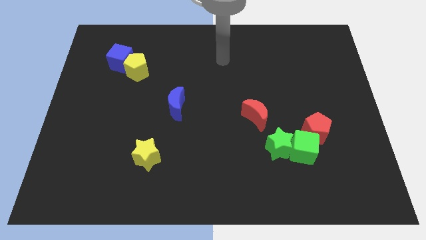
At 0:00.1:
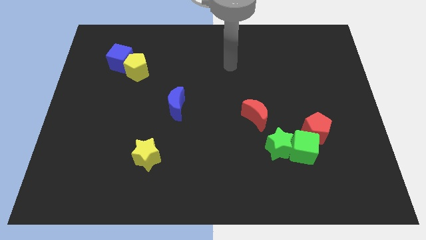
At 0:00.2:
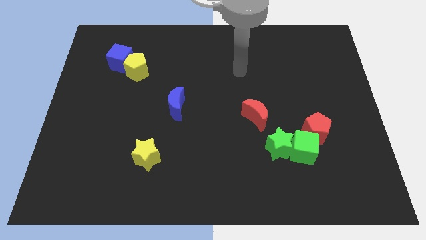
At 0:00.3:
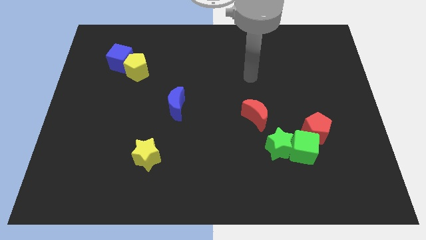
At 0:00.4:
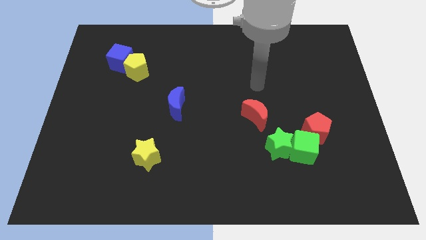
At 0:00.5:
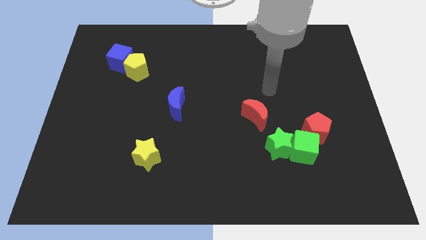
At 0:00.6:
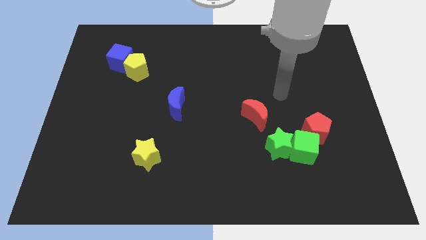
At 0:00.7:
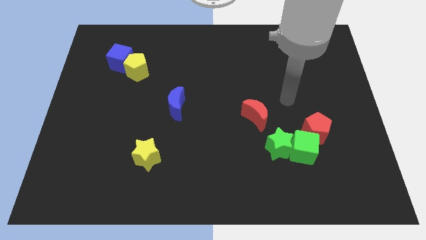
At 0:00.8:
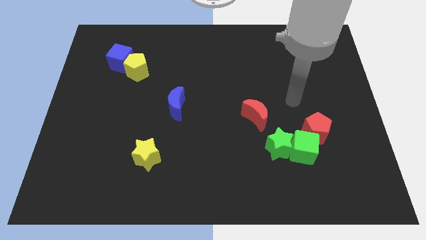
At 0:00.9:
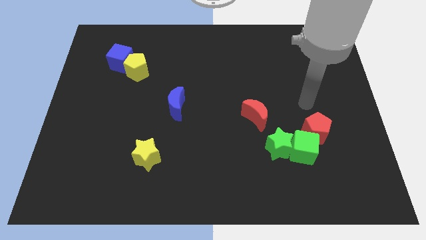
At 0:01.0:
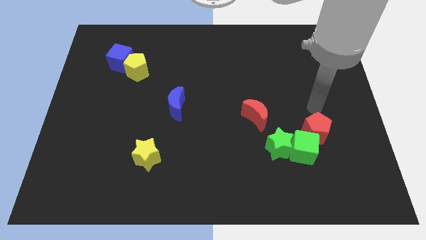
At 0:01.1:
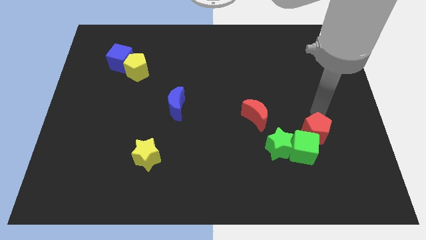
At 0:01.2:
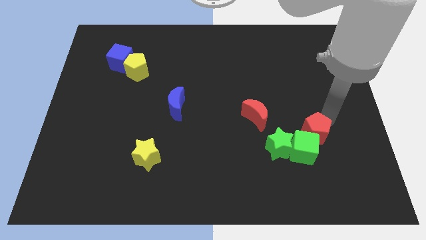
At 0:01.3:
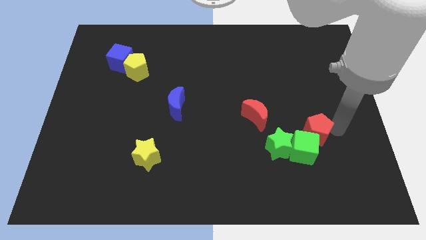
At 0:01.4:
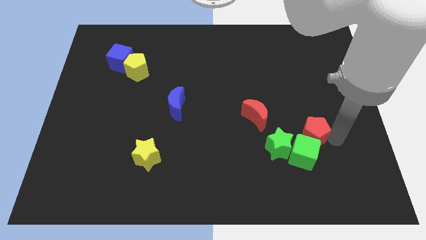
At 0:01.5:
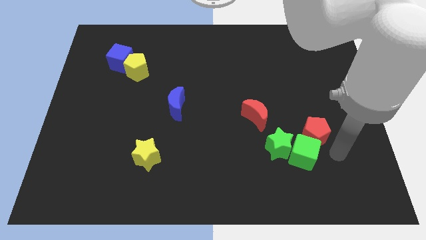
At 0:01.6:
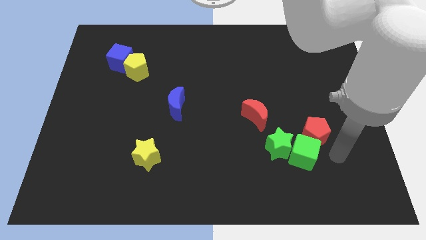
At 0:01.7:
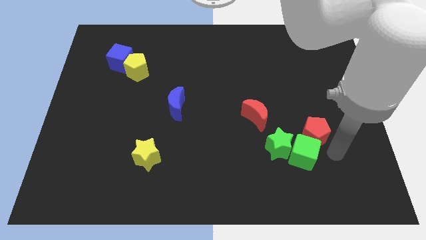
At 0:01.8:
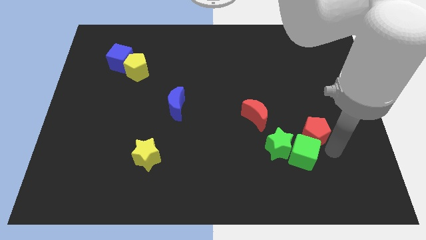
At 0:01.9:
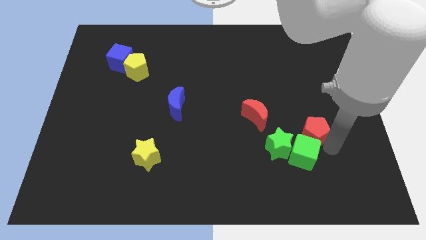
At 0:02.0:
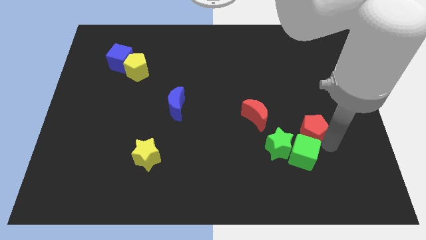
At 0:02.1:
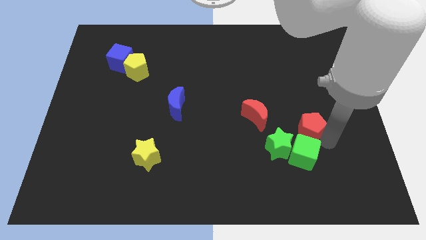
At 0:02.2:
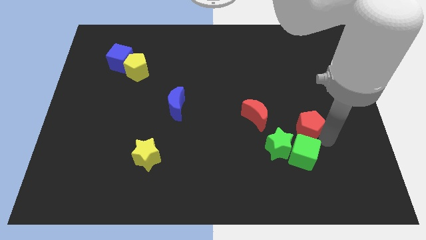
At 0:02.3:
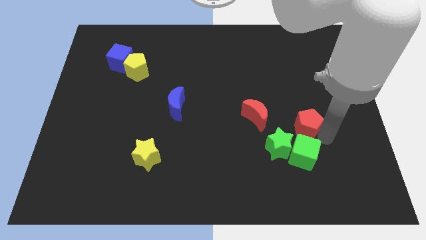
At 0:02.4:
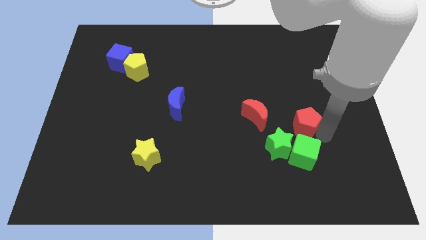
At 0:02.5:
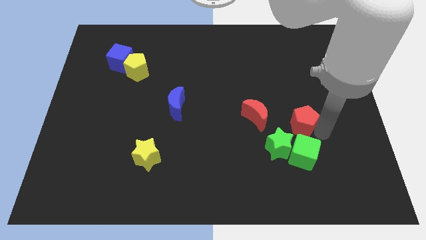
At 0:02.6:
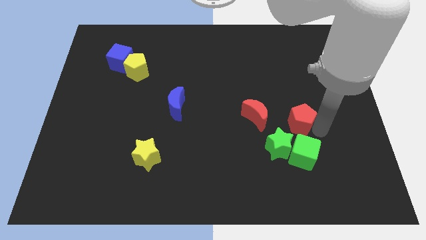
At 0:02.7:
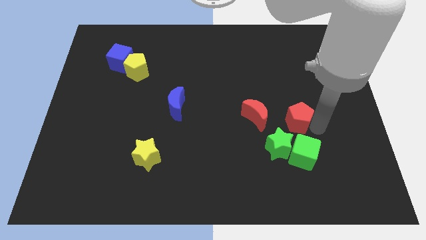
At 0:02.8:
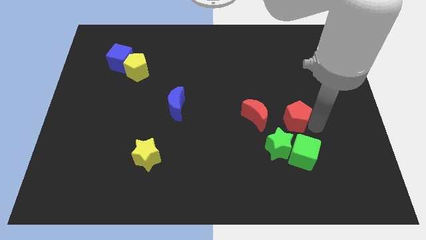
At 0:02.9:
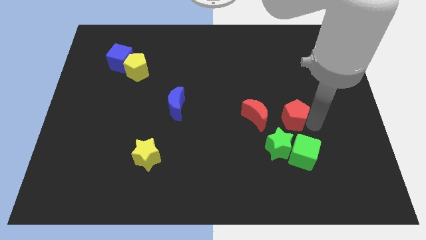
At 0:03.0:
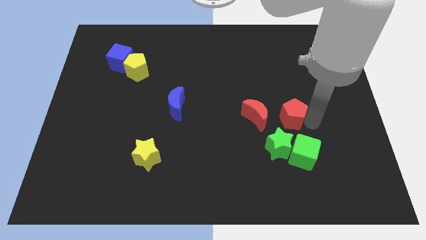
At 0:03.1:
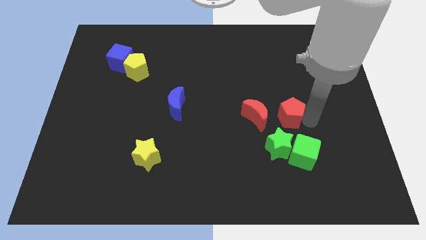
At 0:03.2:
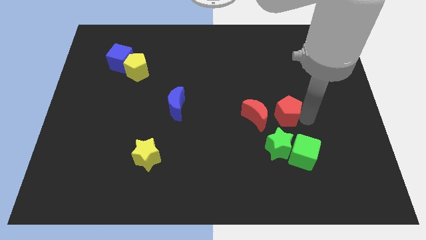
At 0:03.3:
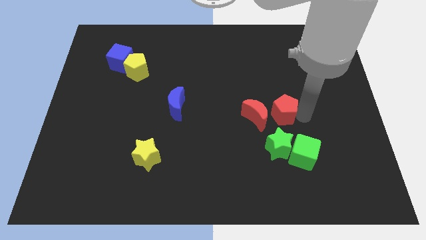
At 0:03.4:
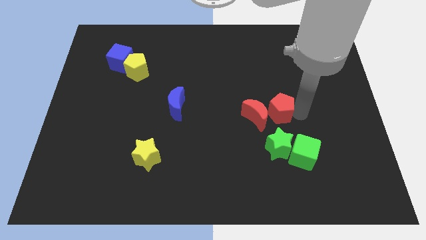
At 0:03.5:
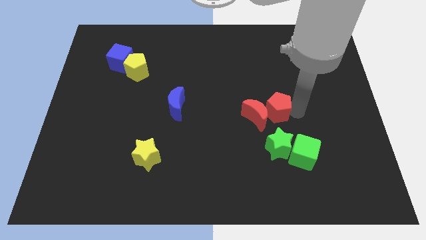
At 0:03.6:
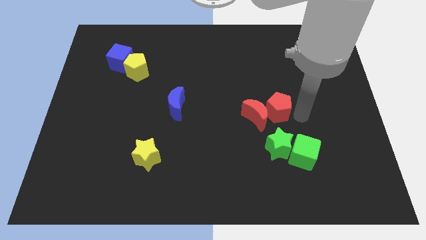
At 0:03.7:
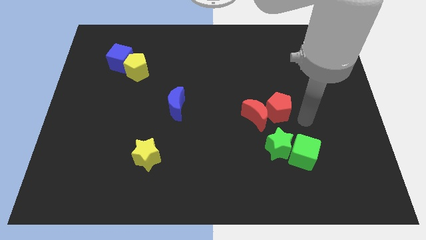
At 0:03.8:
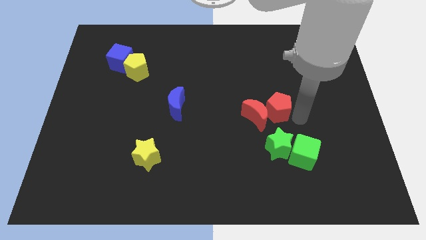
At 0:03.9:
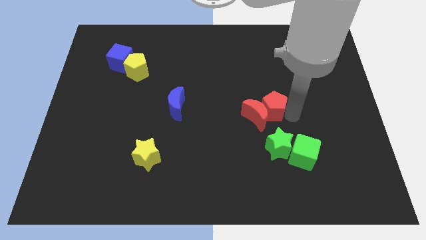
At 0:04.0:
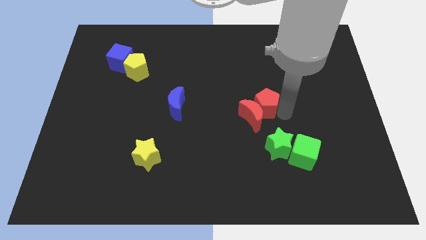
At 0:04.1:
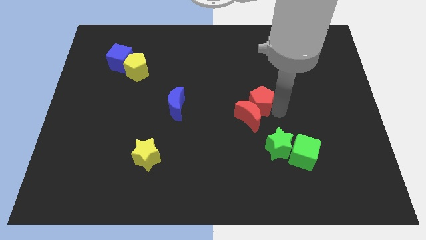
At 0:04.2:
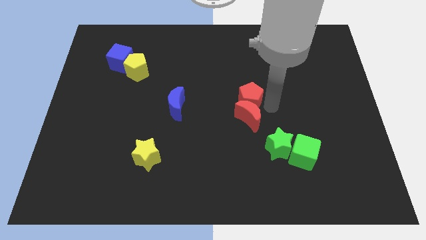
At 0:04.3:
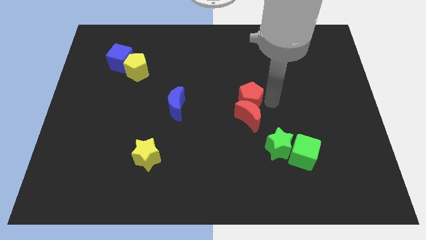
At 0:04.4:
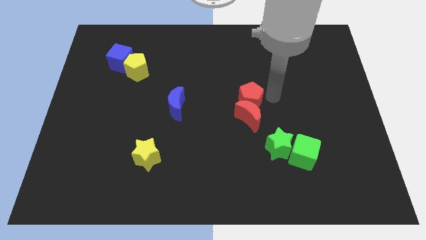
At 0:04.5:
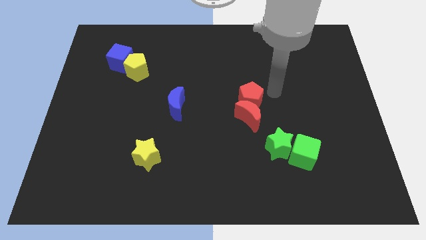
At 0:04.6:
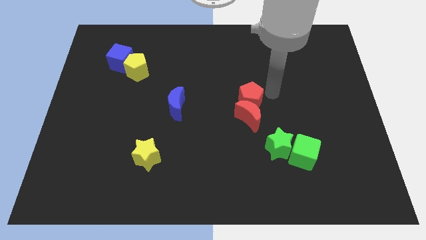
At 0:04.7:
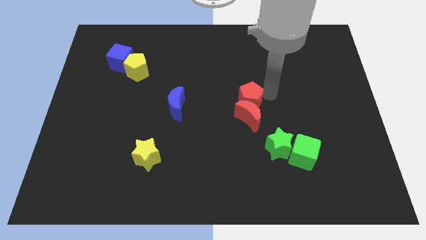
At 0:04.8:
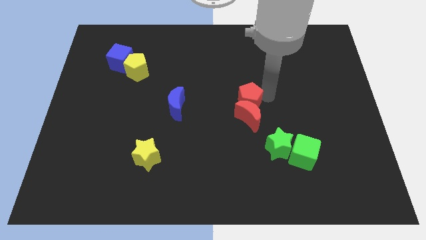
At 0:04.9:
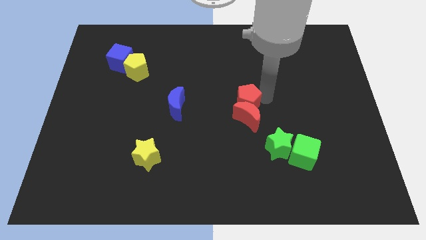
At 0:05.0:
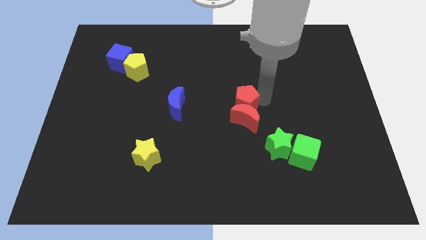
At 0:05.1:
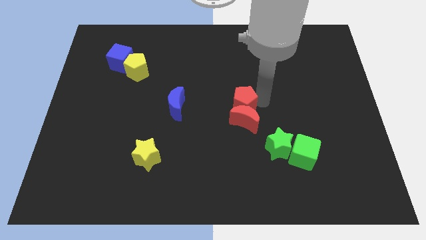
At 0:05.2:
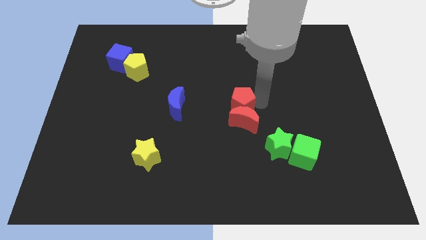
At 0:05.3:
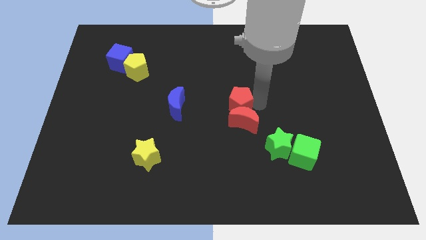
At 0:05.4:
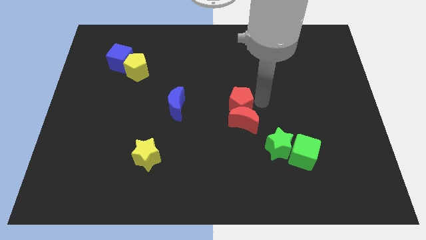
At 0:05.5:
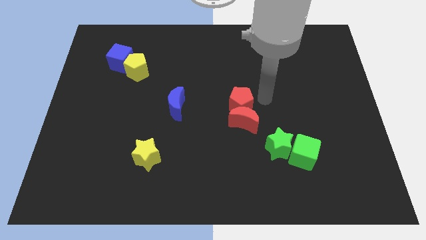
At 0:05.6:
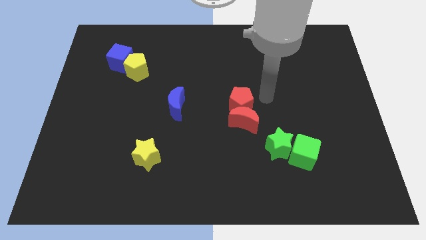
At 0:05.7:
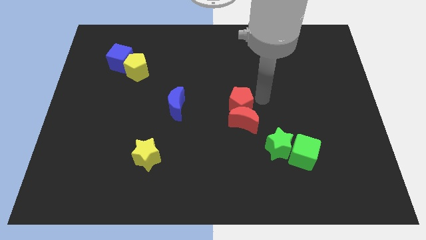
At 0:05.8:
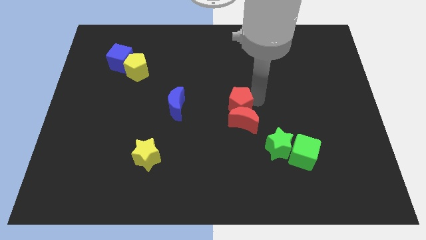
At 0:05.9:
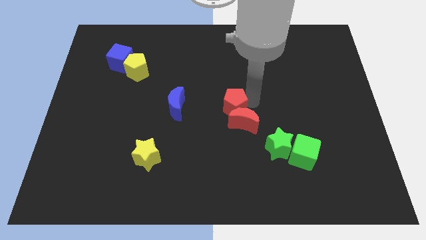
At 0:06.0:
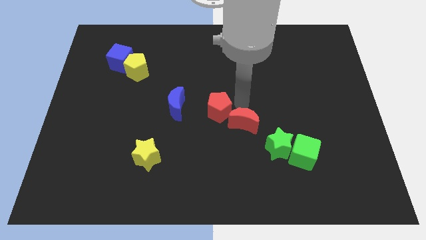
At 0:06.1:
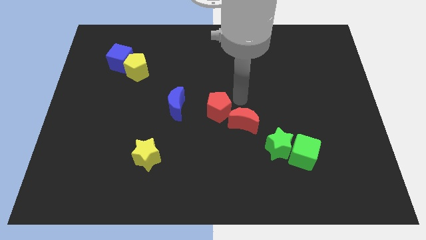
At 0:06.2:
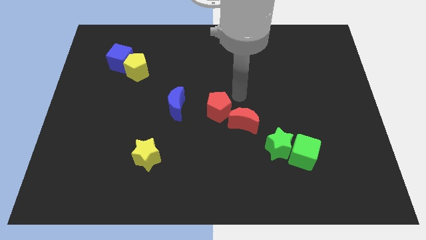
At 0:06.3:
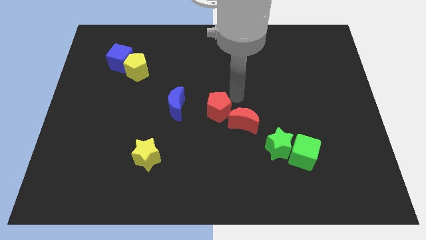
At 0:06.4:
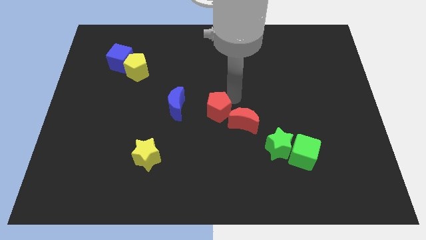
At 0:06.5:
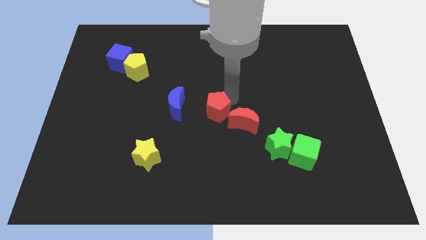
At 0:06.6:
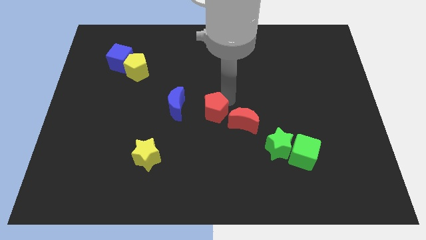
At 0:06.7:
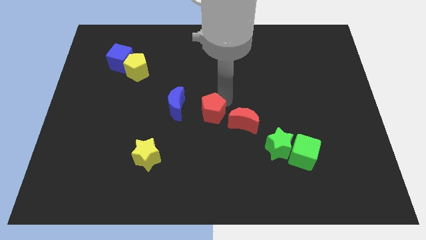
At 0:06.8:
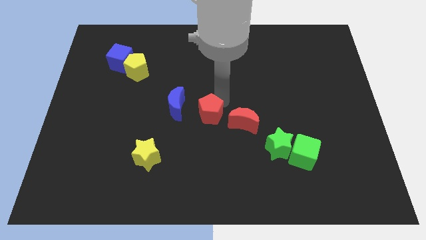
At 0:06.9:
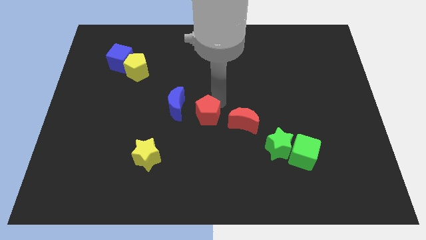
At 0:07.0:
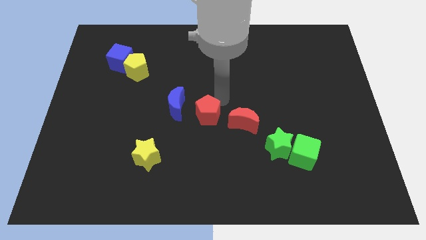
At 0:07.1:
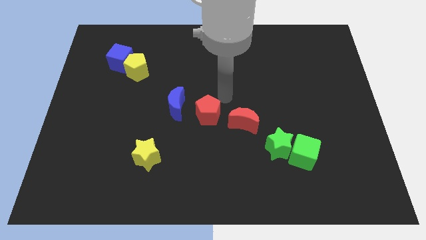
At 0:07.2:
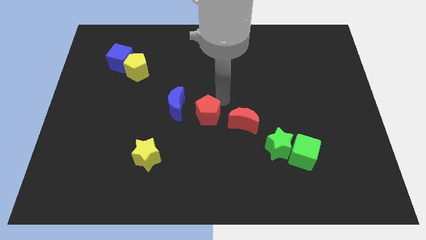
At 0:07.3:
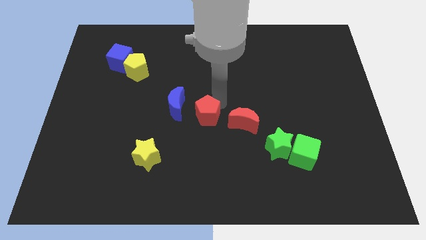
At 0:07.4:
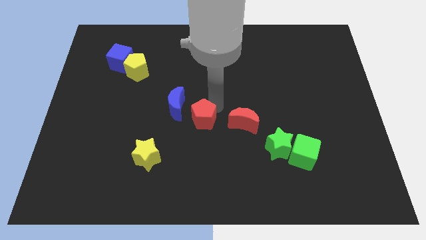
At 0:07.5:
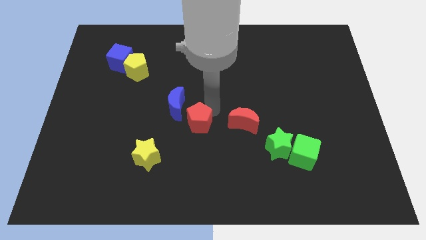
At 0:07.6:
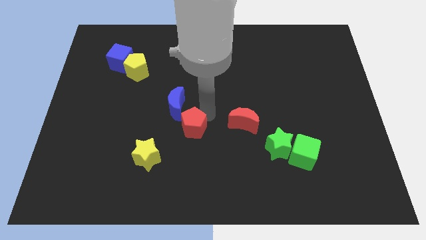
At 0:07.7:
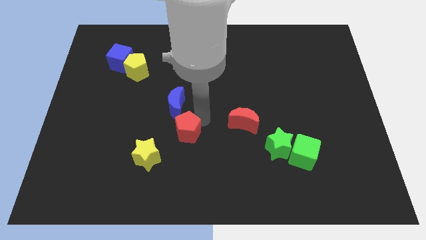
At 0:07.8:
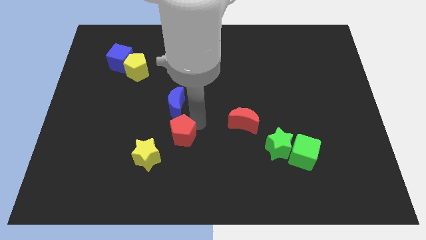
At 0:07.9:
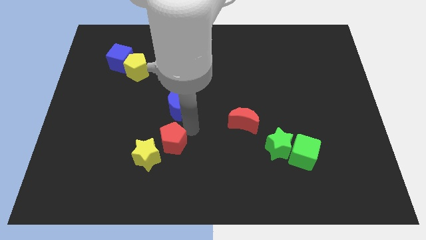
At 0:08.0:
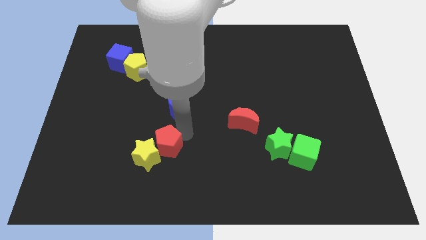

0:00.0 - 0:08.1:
push the red pentagon close to the yellow star
